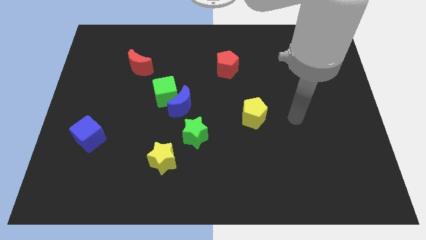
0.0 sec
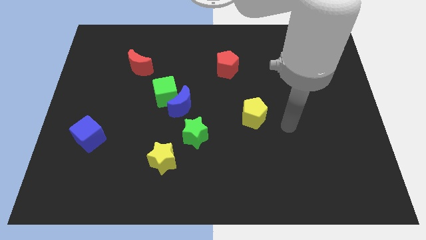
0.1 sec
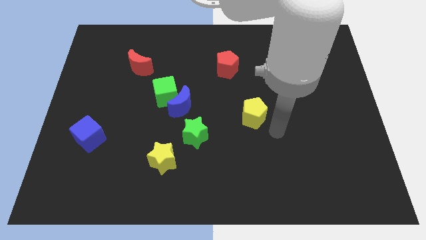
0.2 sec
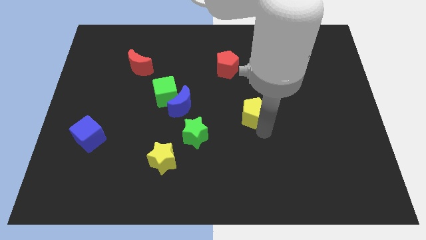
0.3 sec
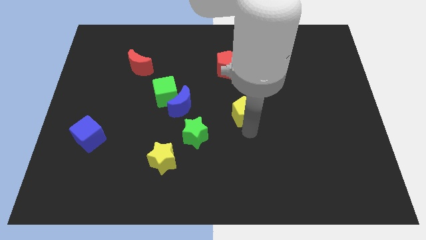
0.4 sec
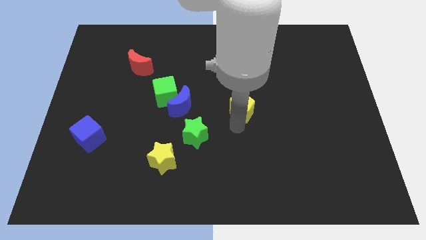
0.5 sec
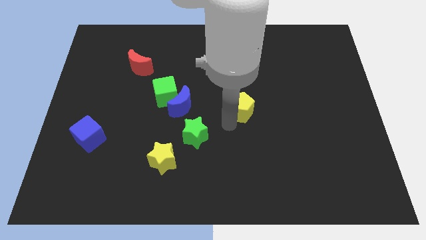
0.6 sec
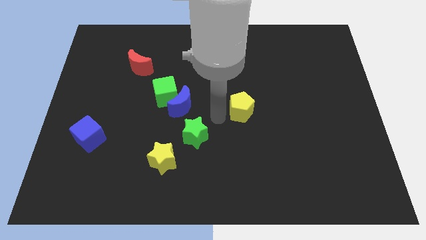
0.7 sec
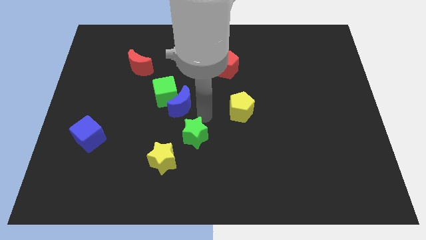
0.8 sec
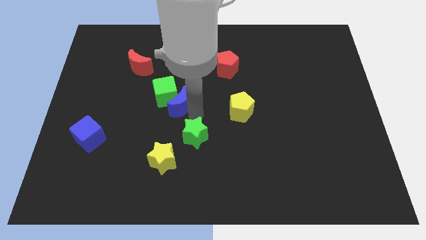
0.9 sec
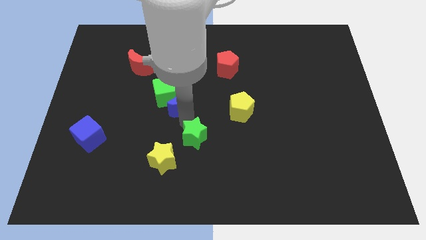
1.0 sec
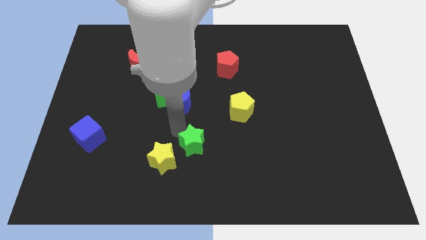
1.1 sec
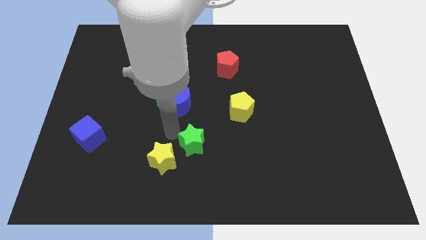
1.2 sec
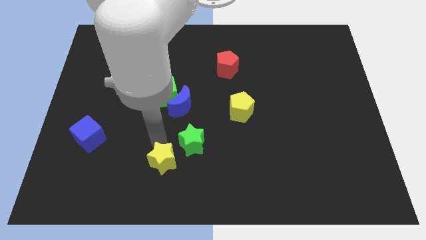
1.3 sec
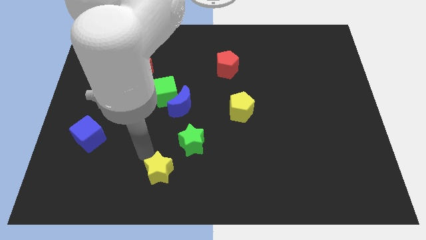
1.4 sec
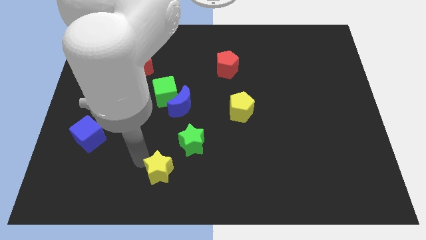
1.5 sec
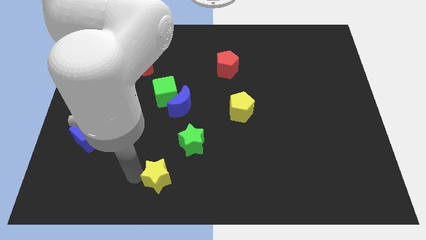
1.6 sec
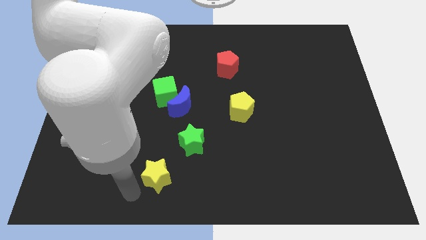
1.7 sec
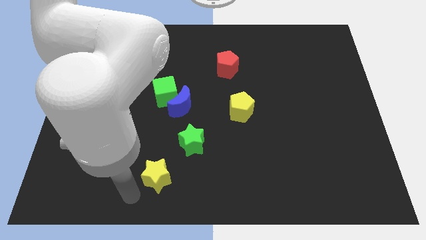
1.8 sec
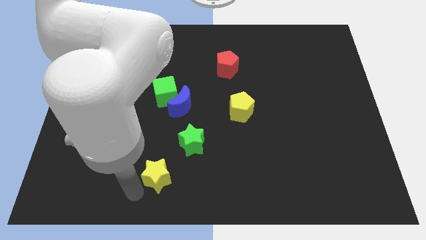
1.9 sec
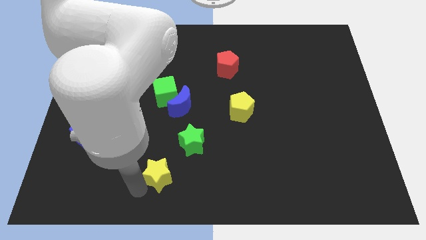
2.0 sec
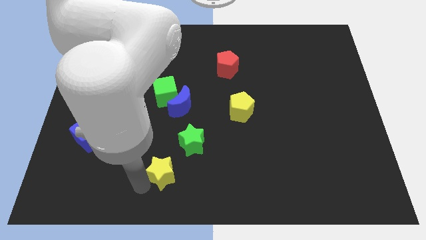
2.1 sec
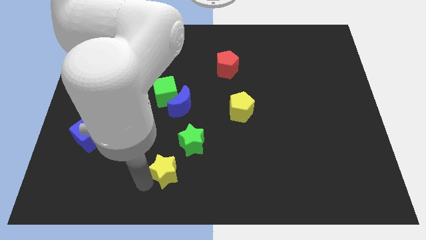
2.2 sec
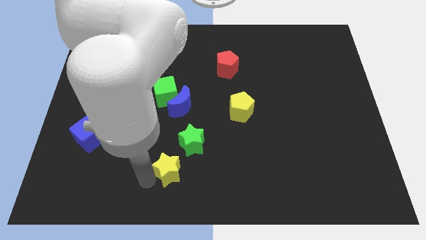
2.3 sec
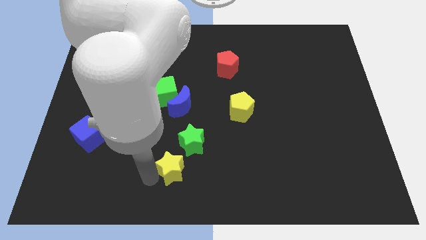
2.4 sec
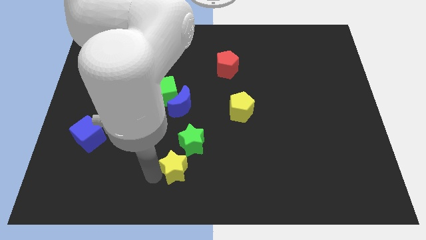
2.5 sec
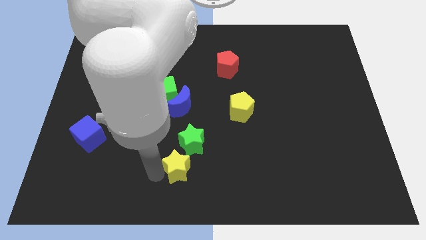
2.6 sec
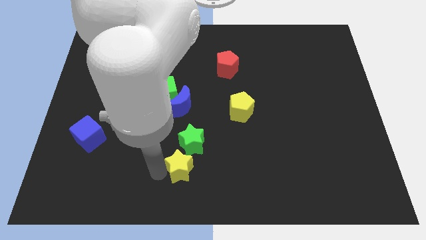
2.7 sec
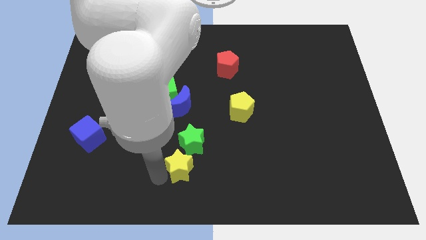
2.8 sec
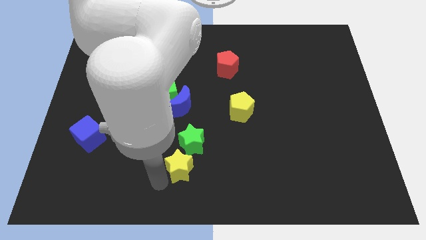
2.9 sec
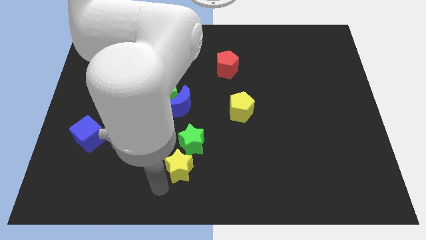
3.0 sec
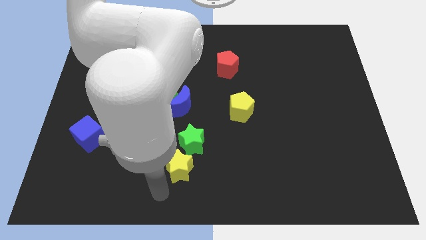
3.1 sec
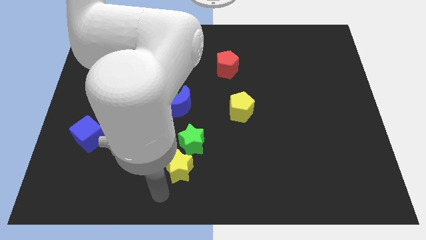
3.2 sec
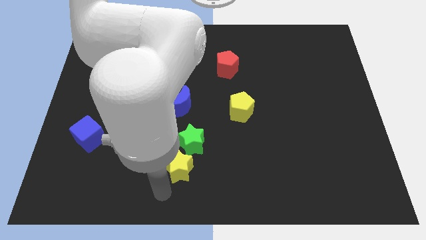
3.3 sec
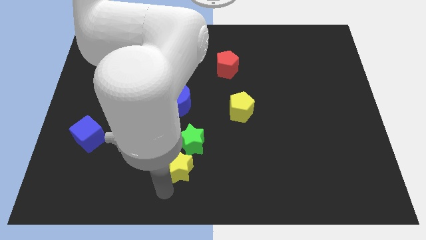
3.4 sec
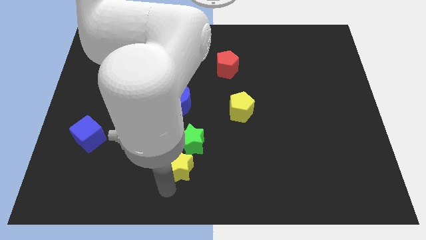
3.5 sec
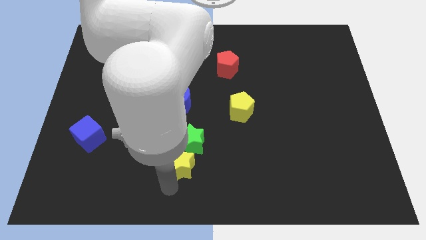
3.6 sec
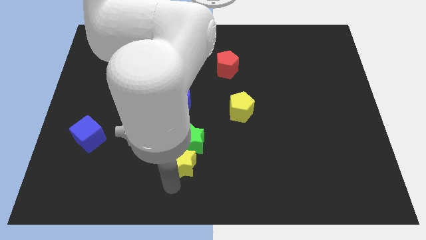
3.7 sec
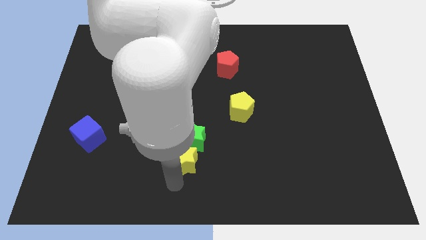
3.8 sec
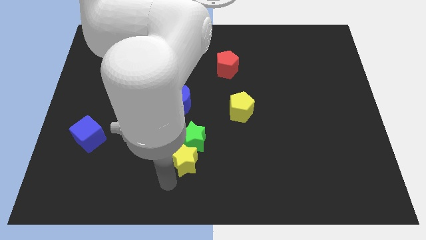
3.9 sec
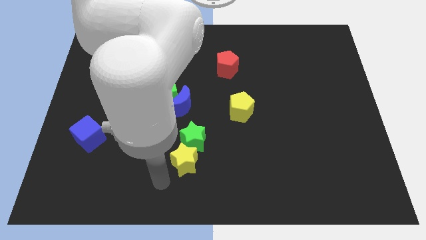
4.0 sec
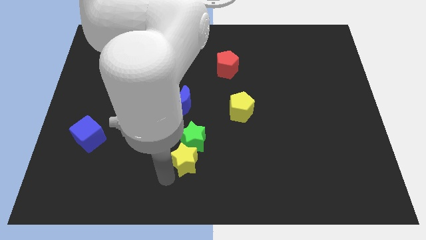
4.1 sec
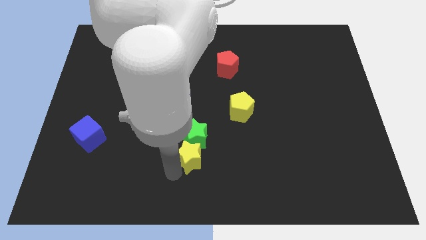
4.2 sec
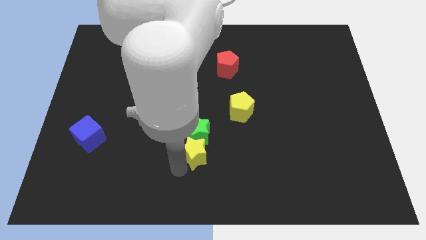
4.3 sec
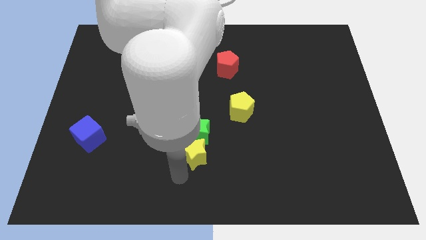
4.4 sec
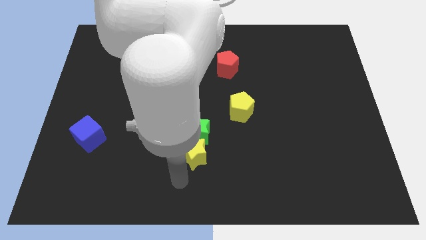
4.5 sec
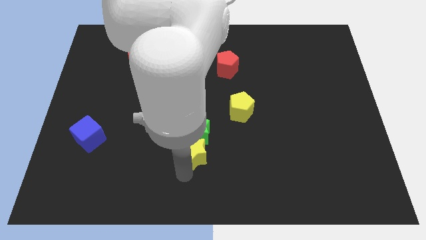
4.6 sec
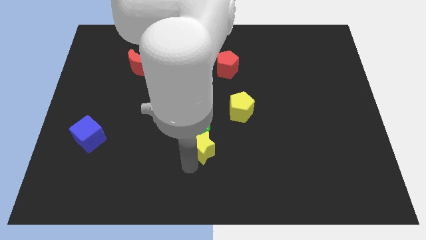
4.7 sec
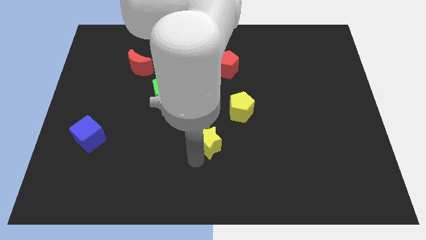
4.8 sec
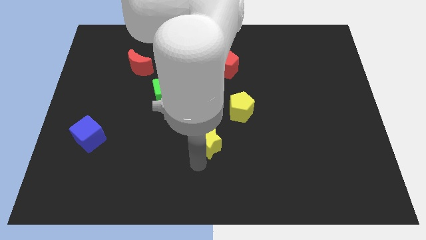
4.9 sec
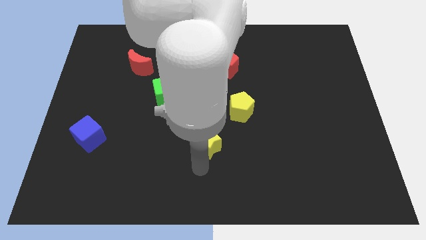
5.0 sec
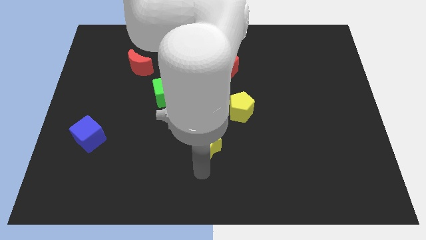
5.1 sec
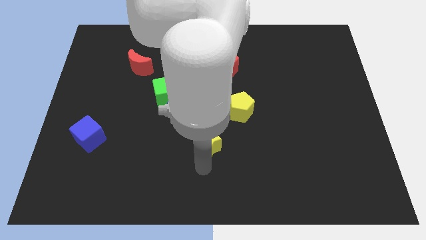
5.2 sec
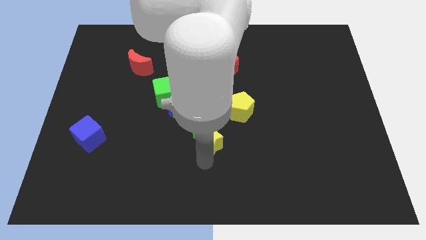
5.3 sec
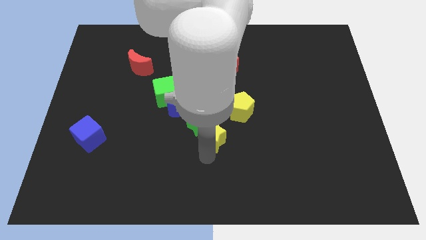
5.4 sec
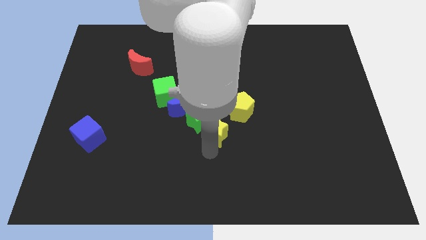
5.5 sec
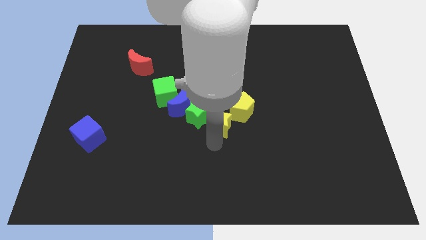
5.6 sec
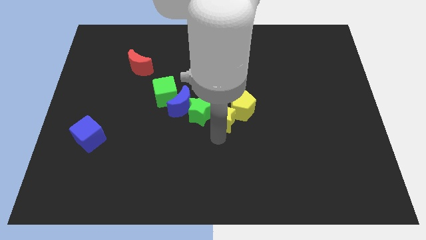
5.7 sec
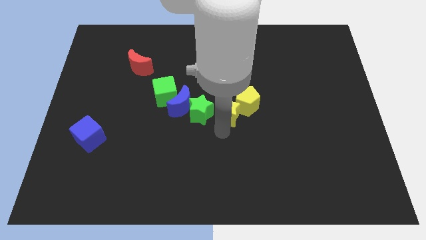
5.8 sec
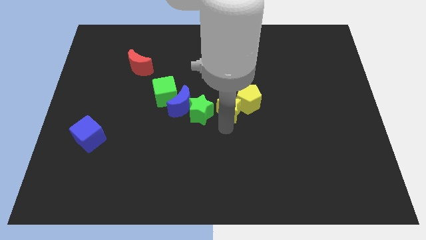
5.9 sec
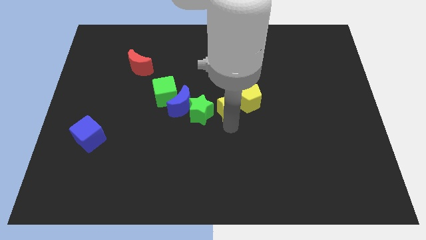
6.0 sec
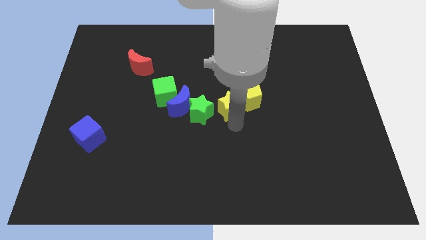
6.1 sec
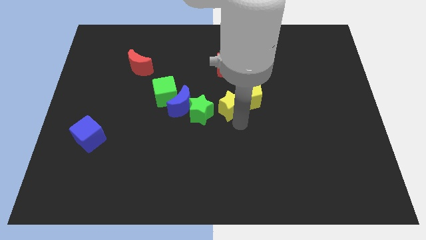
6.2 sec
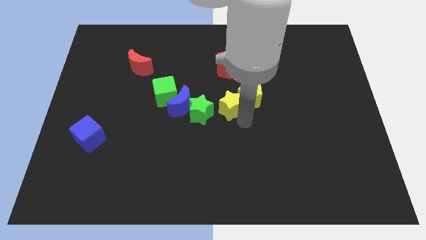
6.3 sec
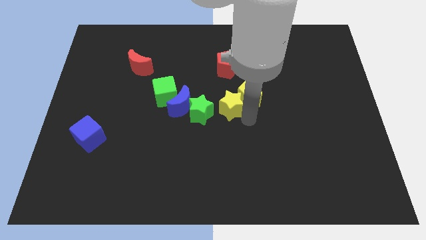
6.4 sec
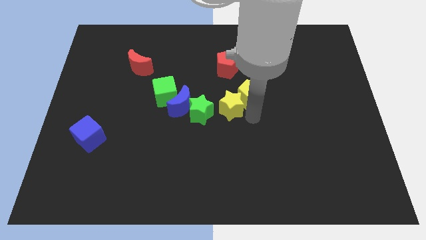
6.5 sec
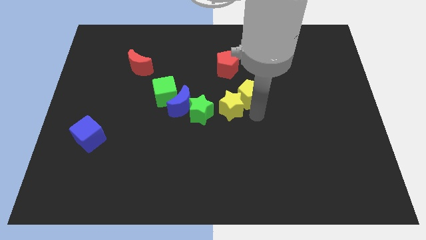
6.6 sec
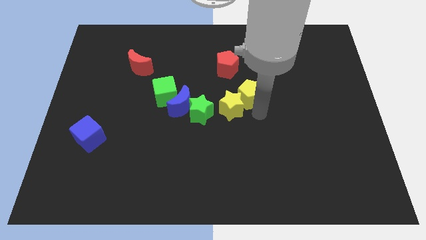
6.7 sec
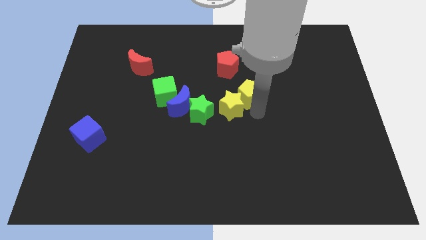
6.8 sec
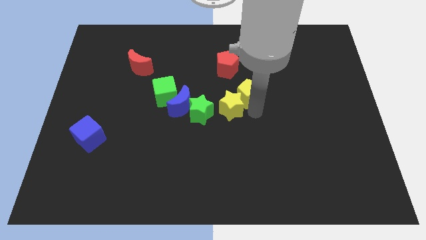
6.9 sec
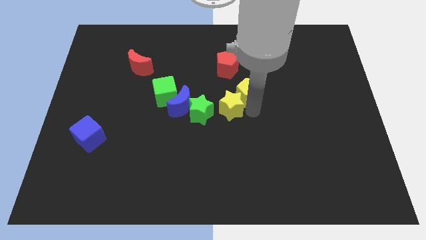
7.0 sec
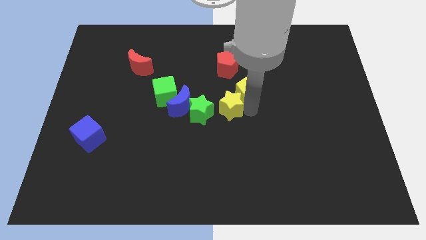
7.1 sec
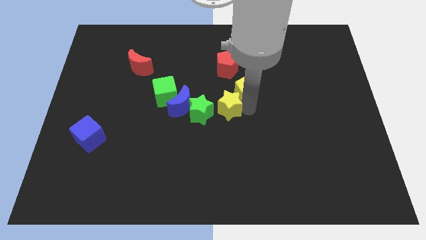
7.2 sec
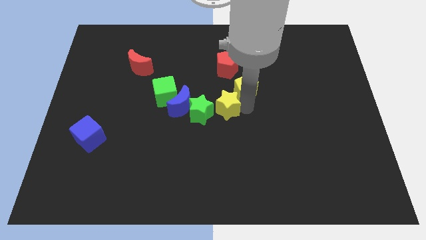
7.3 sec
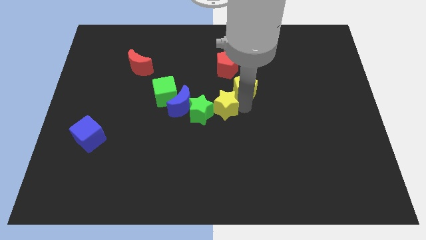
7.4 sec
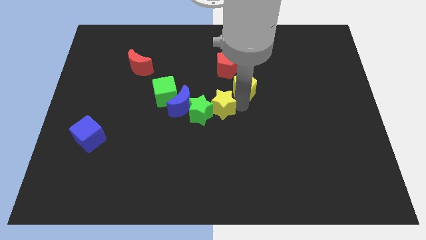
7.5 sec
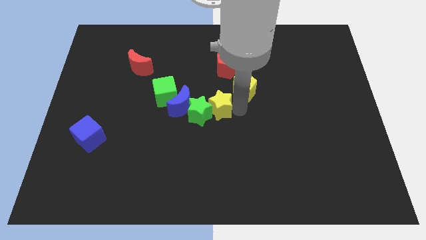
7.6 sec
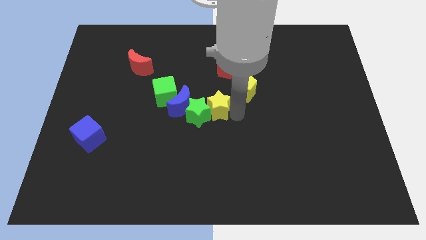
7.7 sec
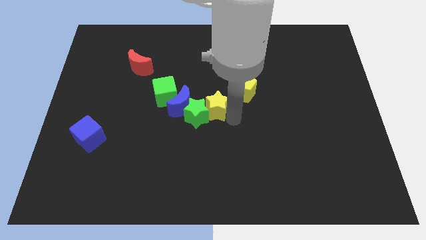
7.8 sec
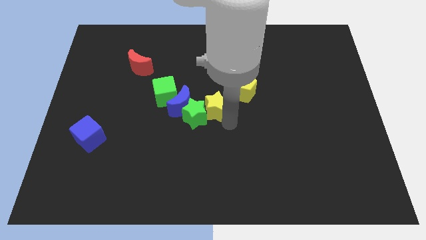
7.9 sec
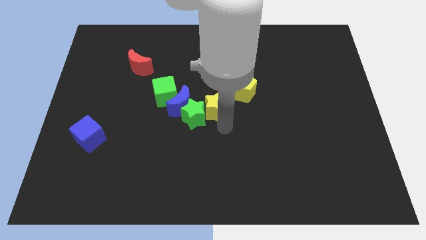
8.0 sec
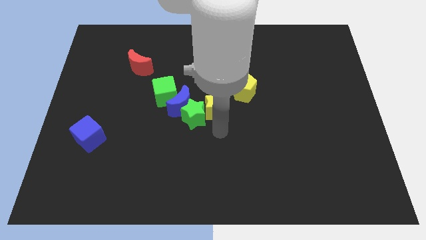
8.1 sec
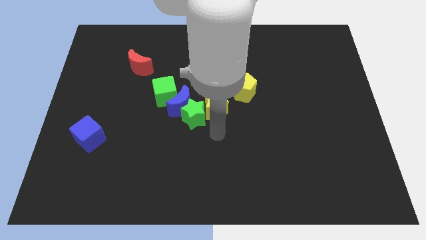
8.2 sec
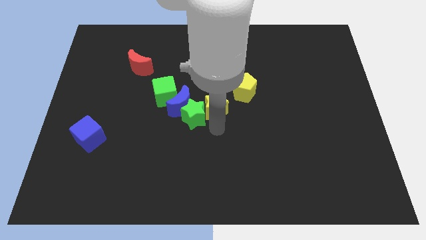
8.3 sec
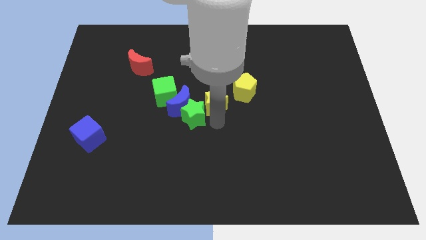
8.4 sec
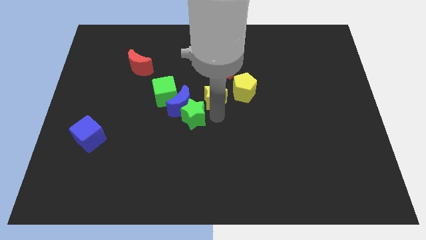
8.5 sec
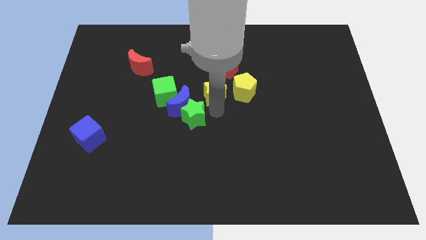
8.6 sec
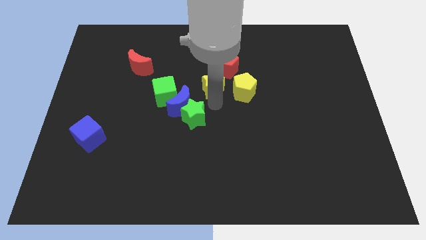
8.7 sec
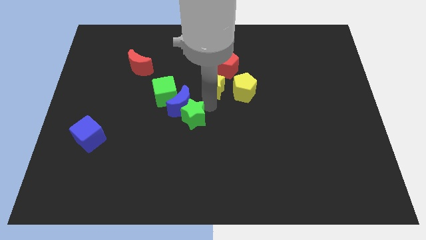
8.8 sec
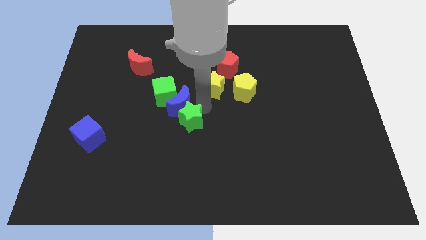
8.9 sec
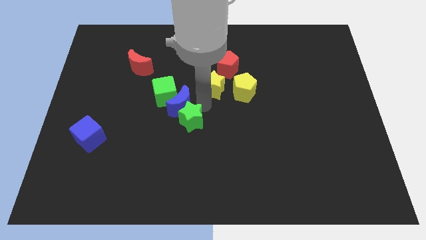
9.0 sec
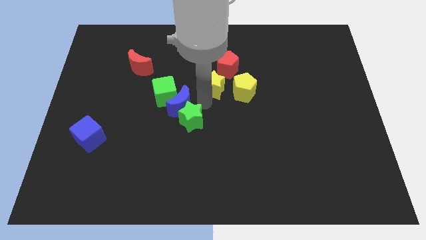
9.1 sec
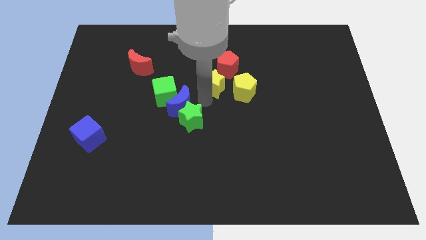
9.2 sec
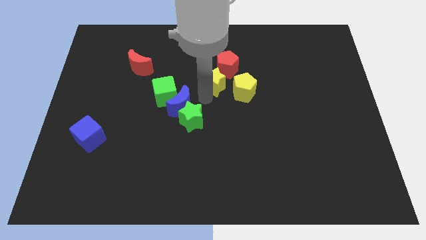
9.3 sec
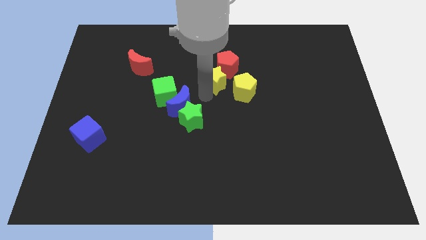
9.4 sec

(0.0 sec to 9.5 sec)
push the yellow star next to the red pentagon
